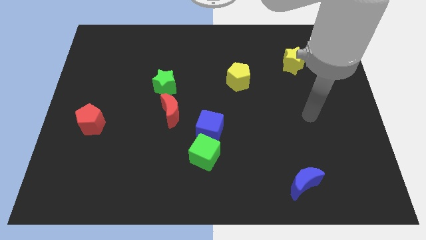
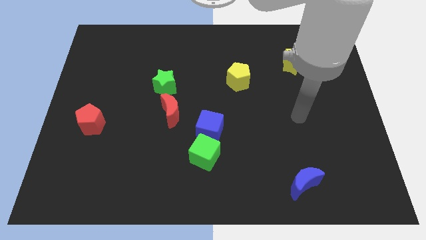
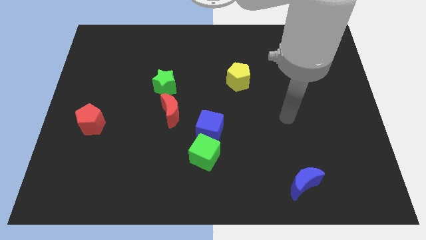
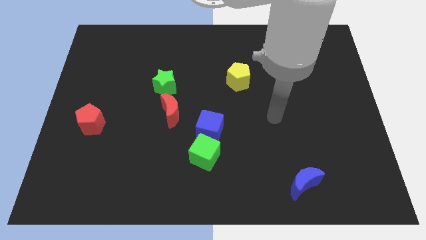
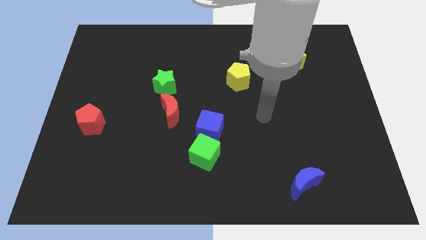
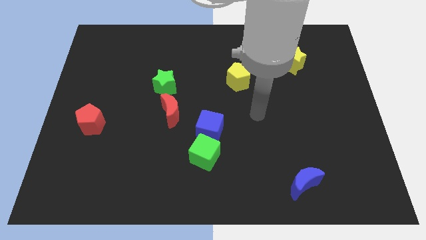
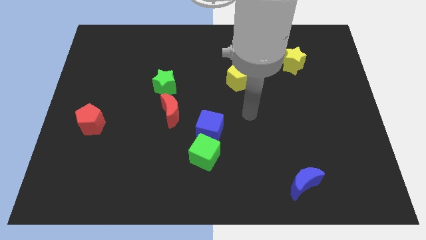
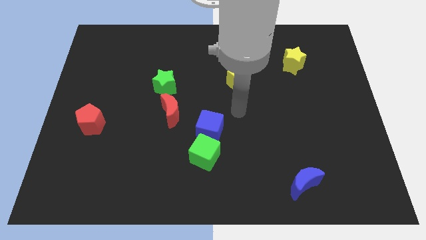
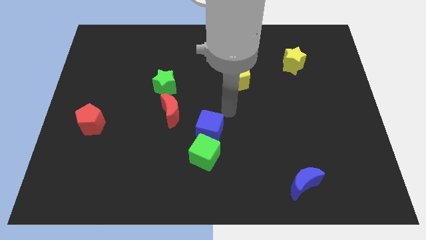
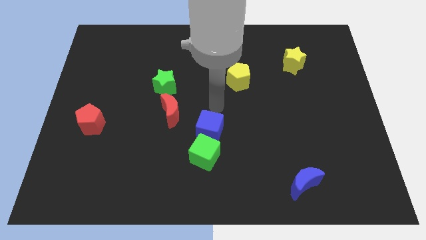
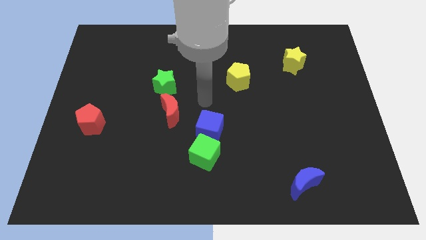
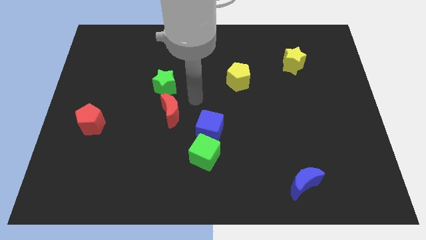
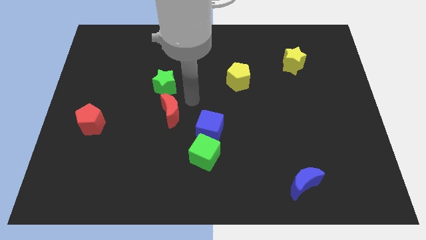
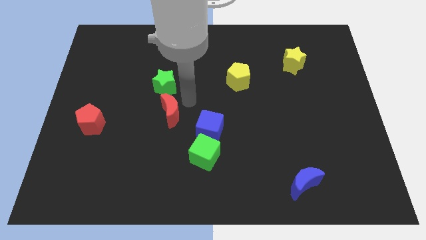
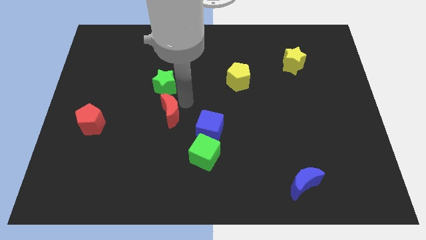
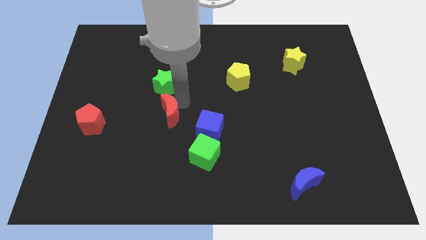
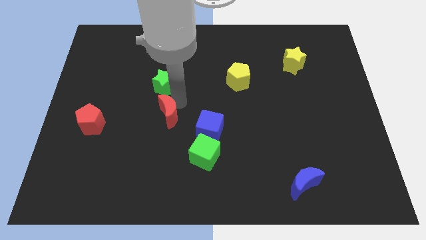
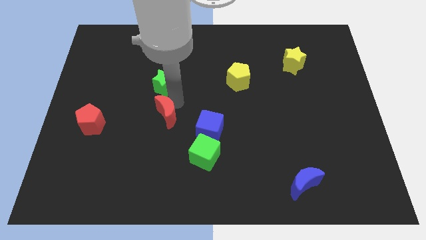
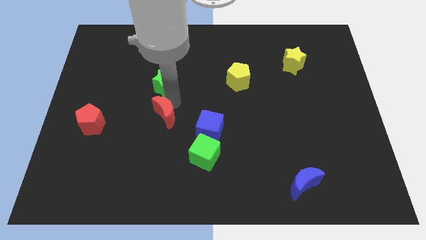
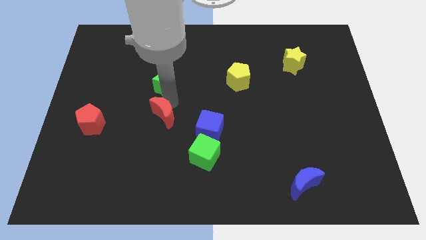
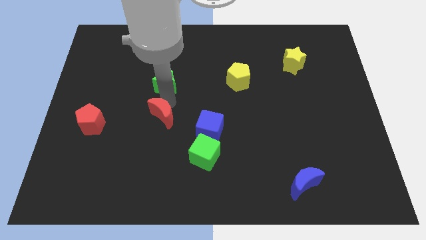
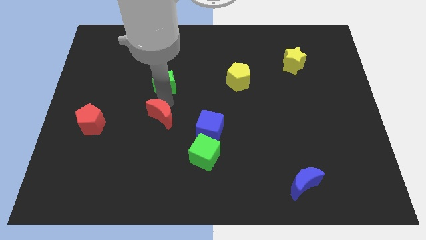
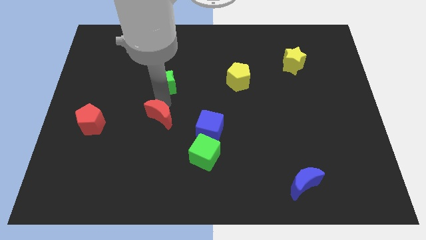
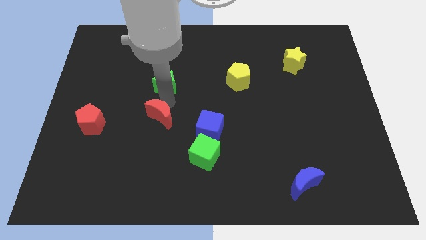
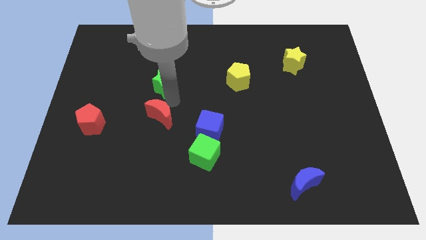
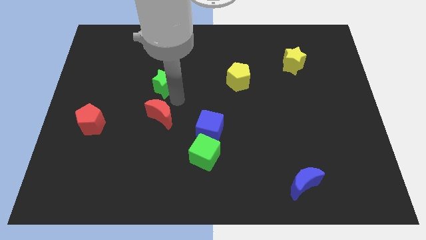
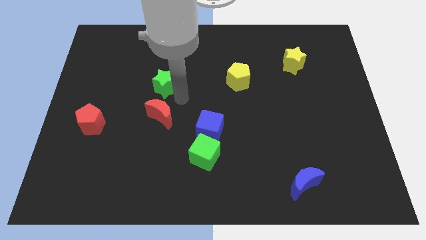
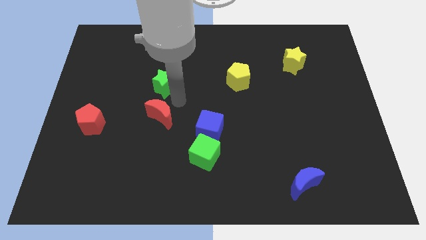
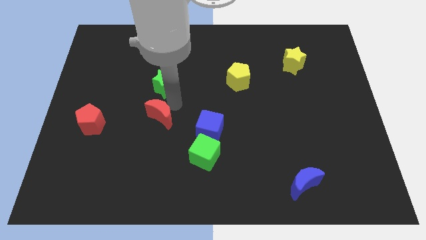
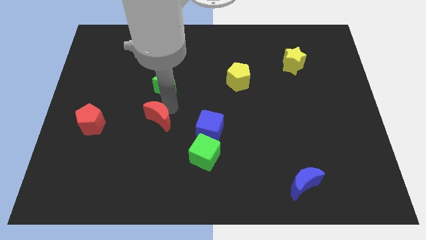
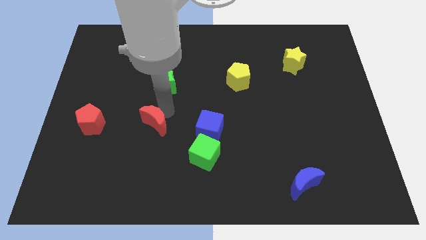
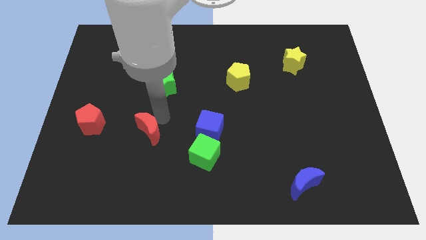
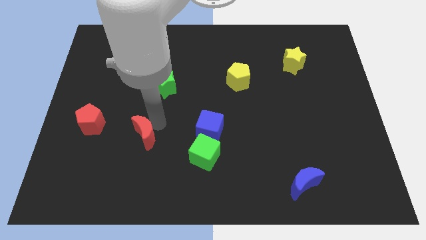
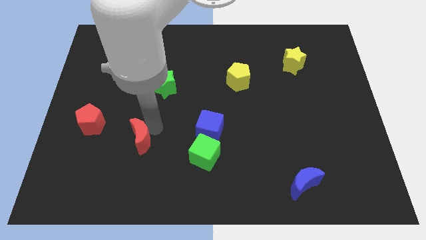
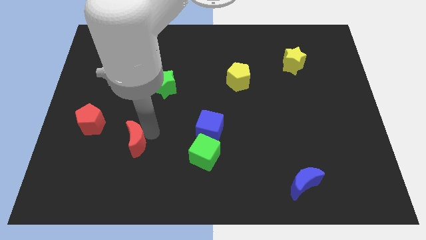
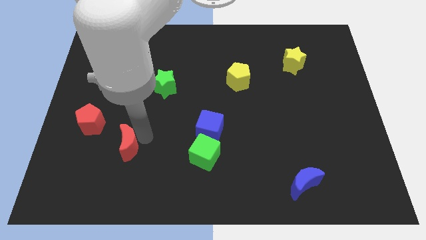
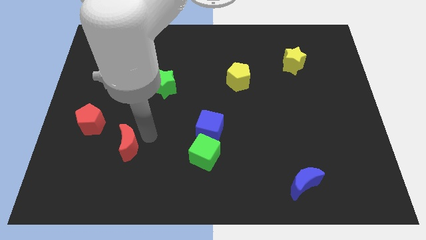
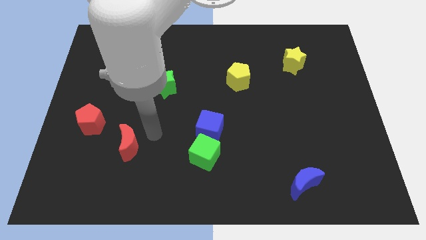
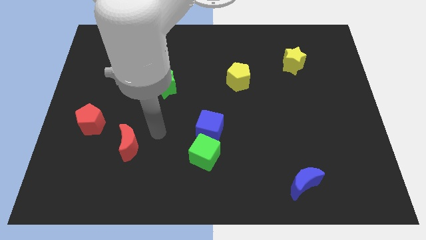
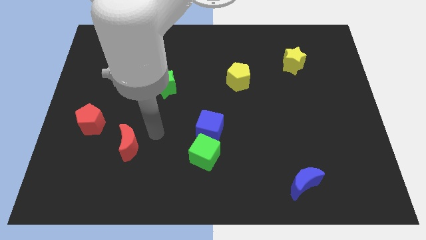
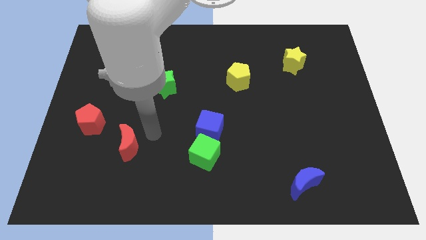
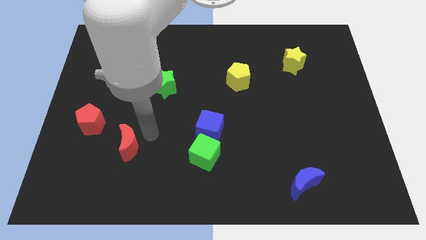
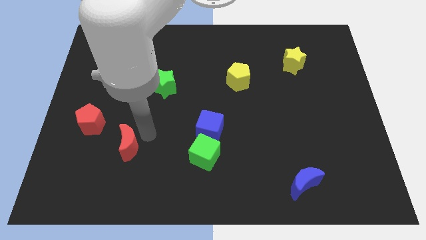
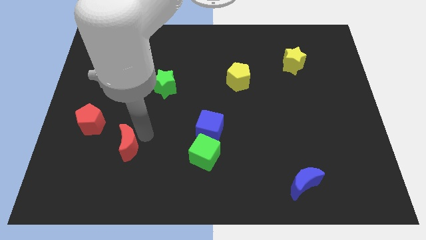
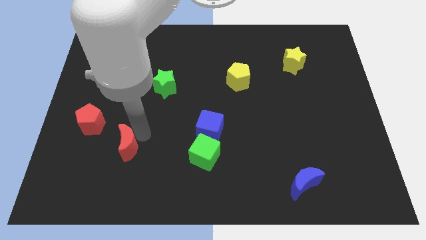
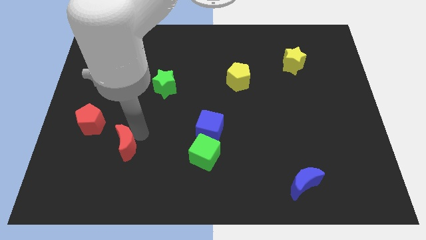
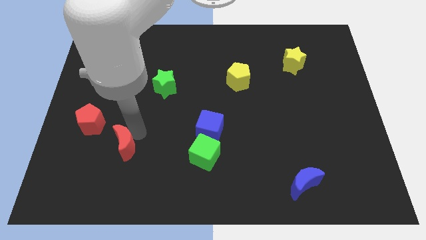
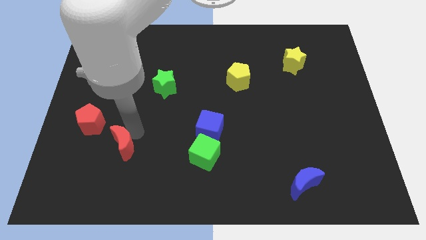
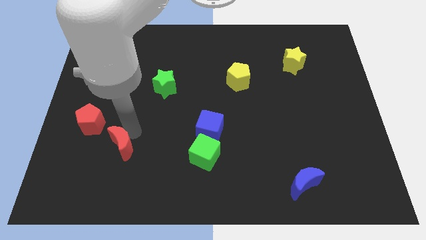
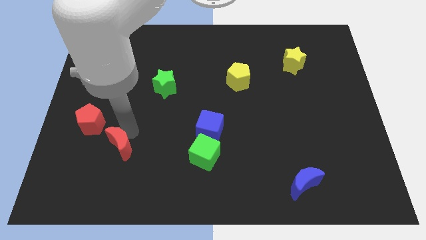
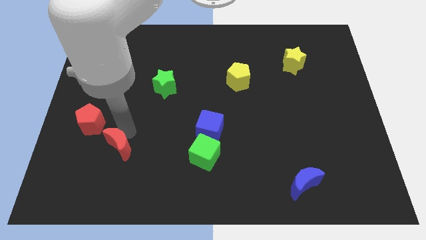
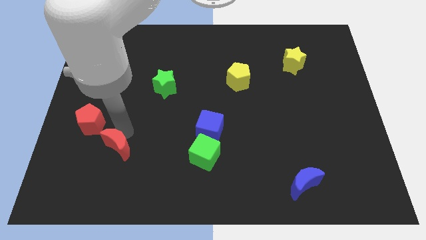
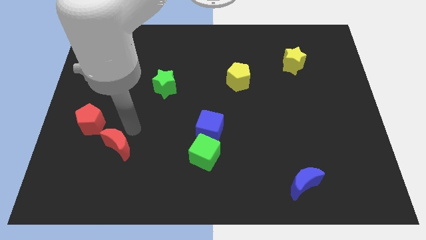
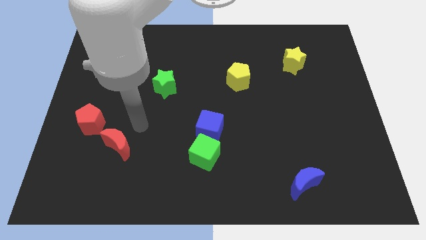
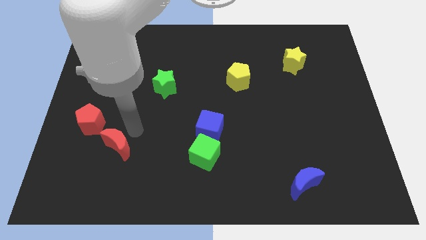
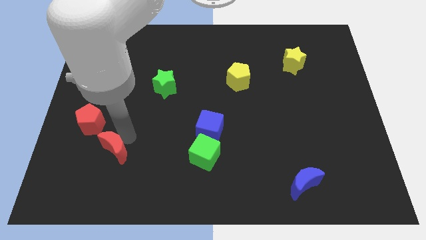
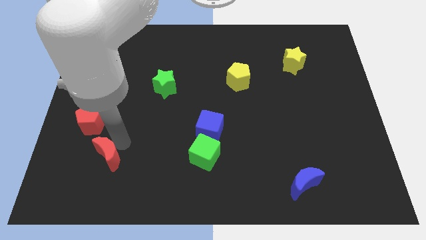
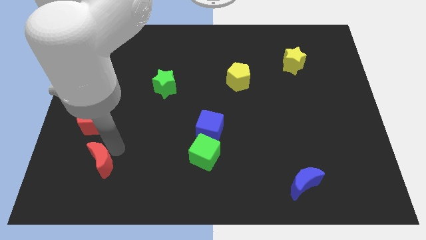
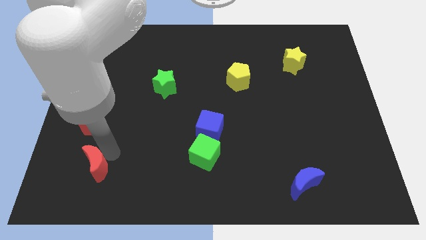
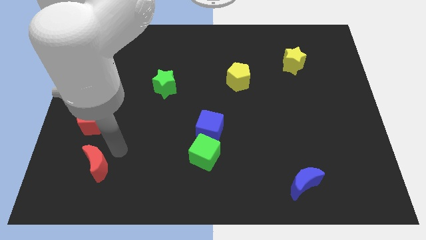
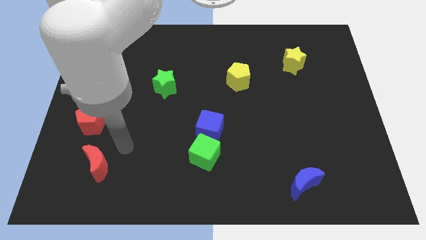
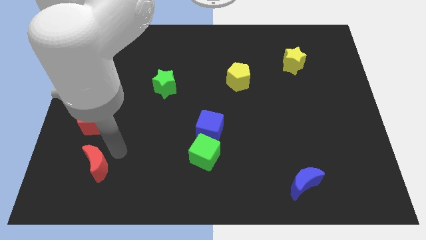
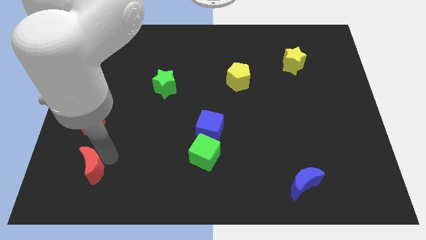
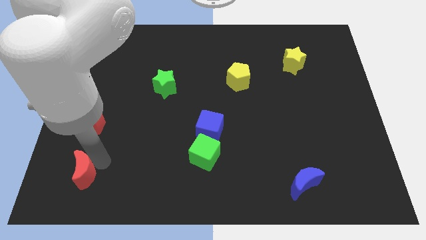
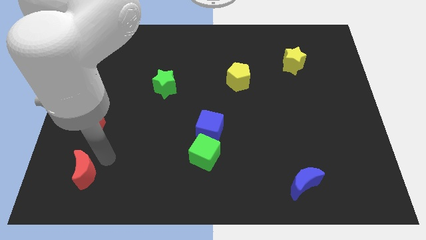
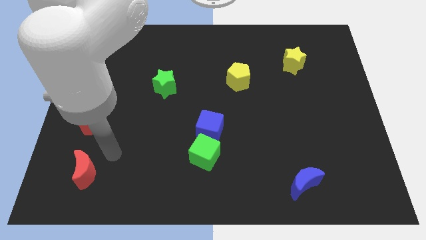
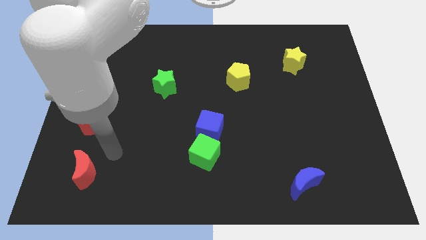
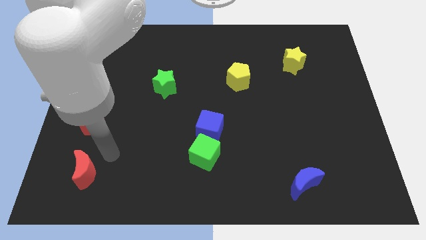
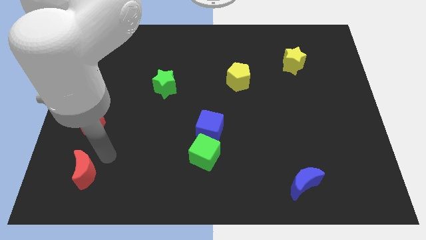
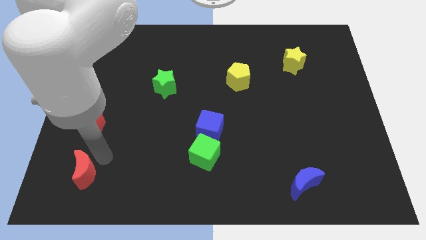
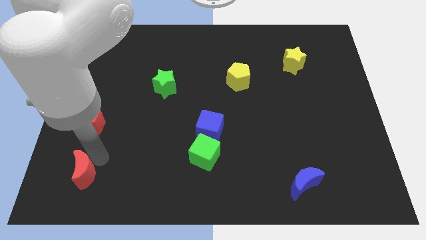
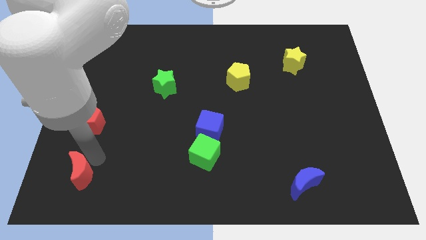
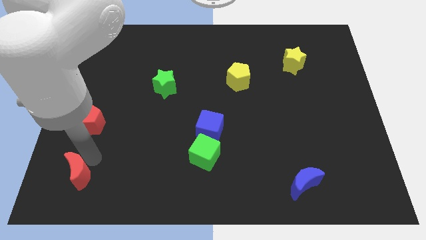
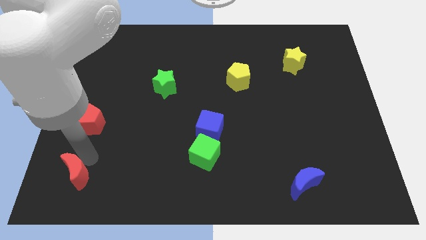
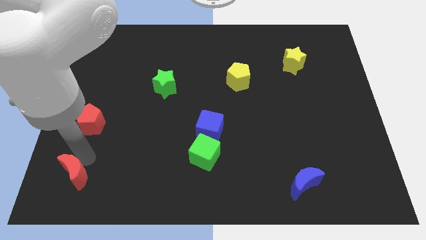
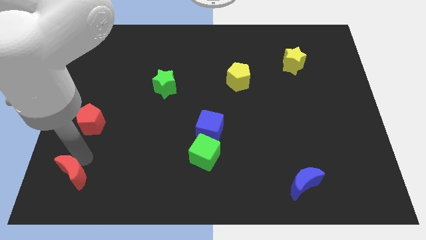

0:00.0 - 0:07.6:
move the red moon to the lower left corner
